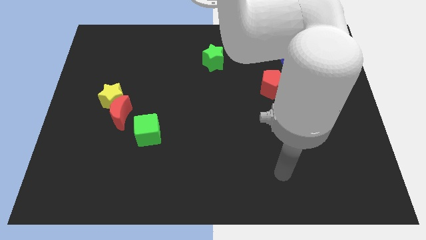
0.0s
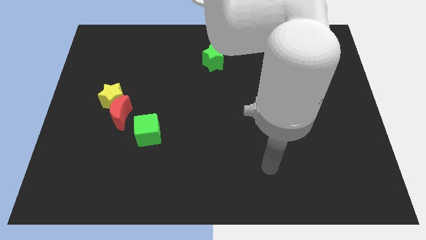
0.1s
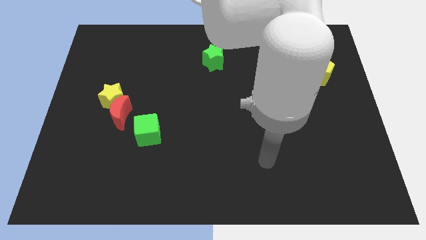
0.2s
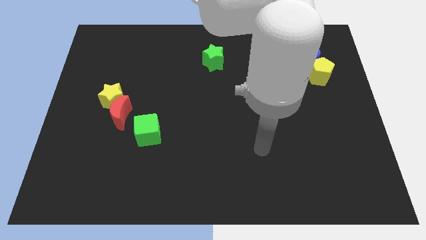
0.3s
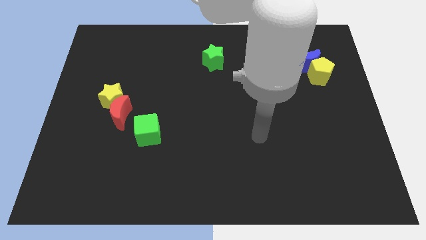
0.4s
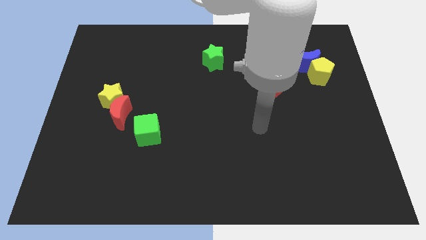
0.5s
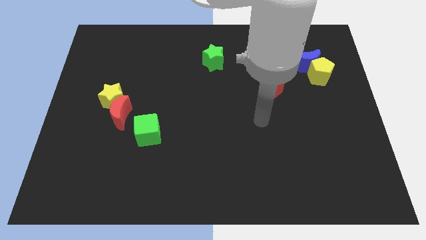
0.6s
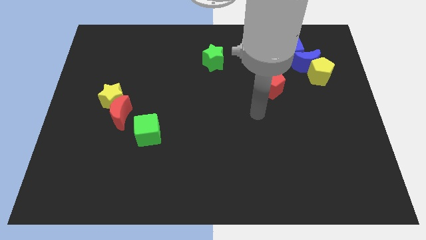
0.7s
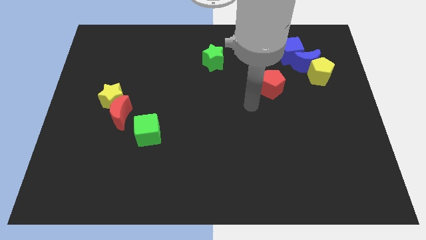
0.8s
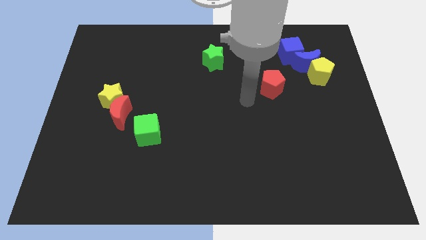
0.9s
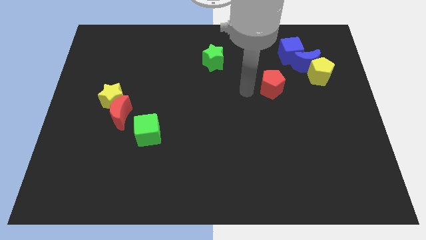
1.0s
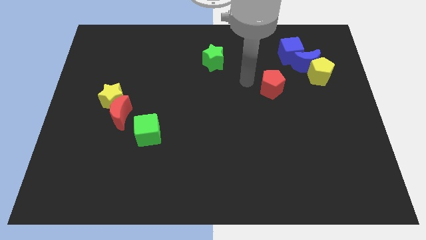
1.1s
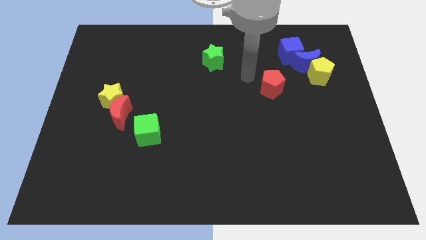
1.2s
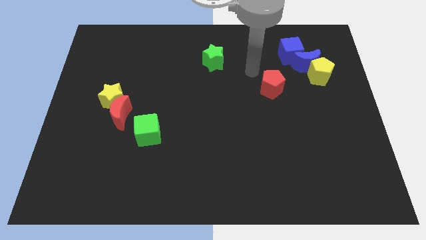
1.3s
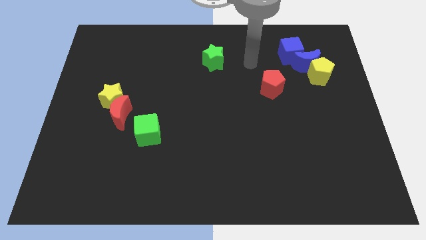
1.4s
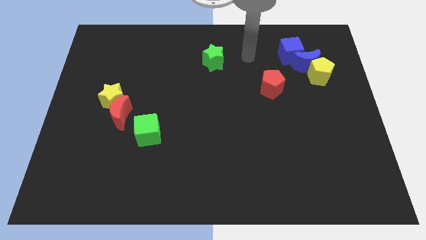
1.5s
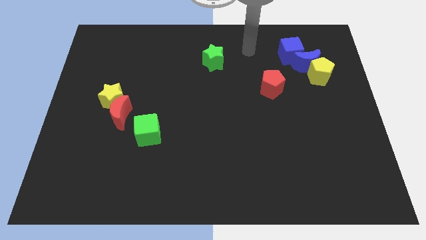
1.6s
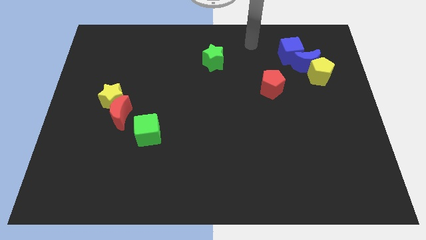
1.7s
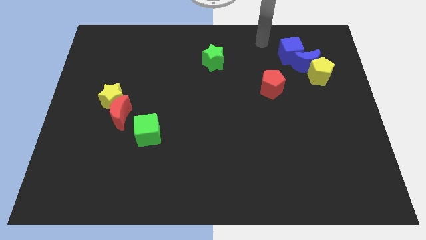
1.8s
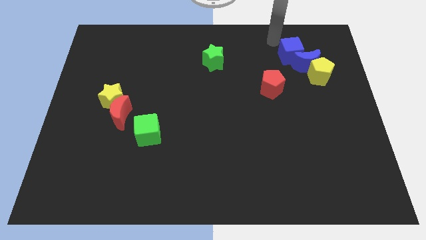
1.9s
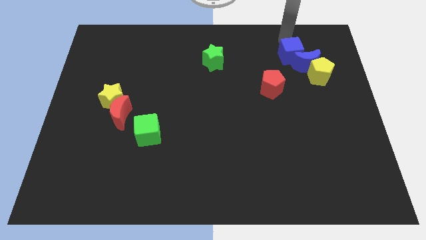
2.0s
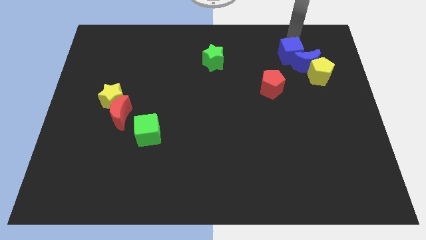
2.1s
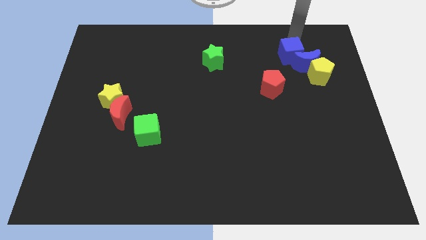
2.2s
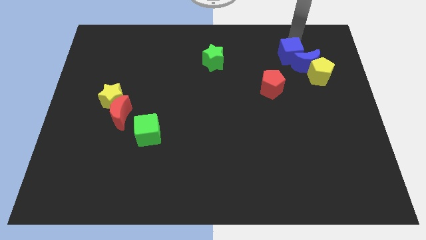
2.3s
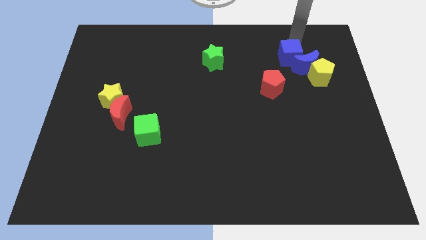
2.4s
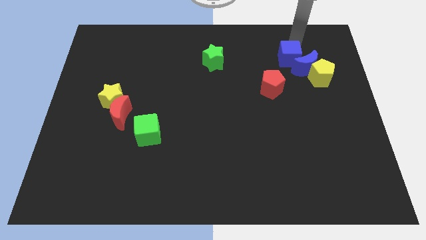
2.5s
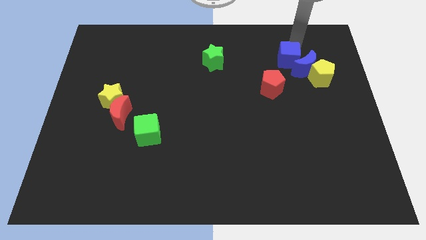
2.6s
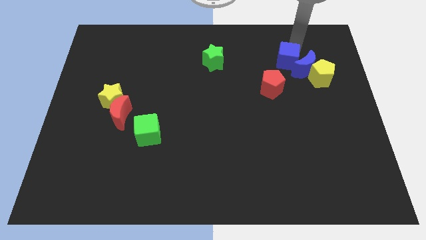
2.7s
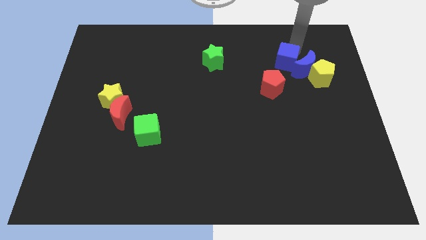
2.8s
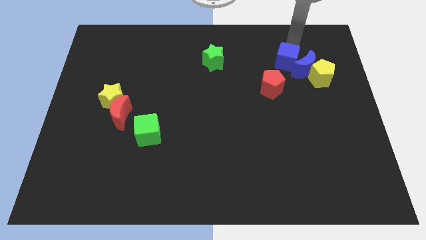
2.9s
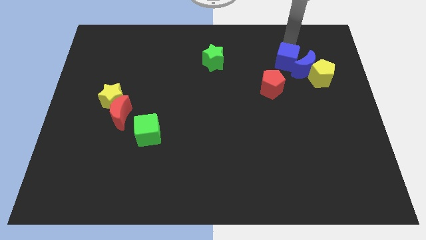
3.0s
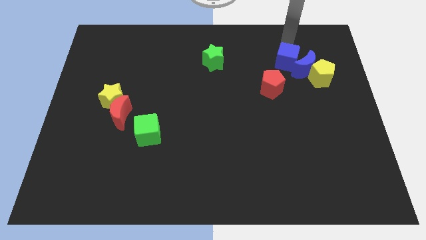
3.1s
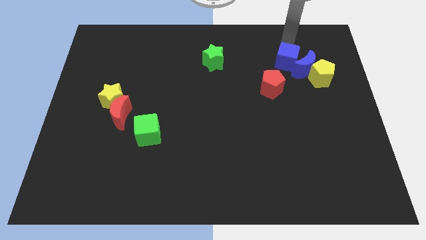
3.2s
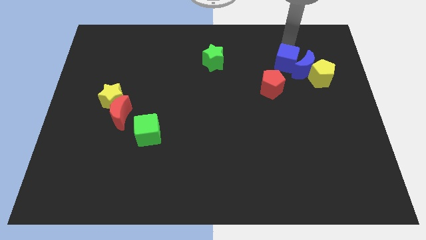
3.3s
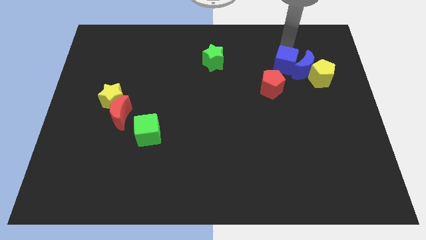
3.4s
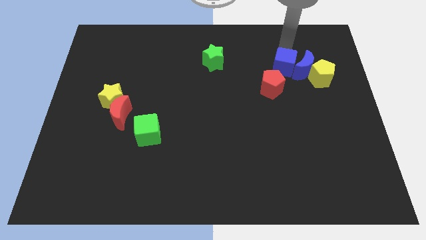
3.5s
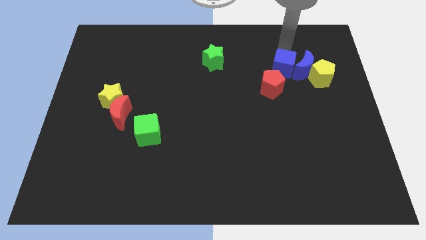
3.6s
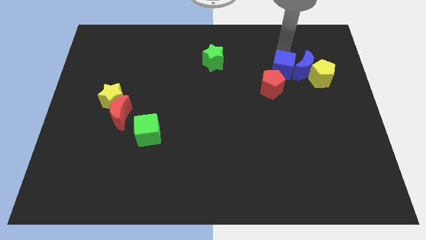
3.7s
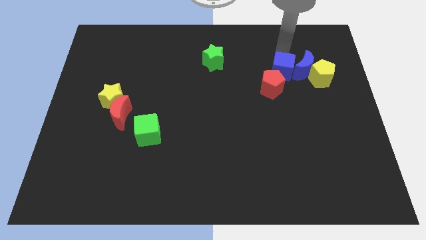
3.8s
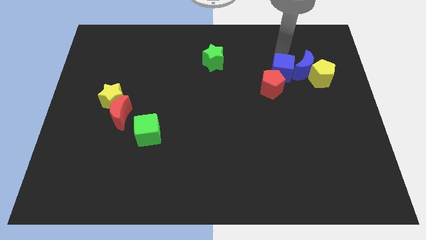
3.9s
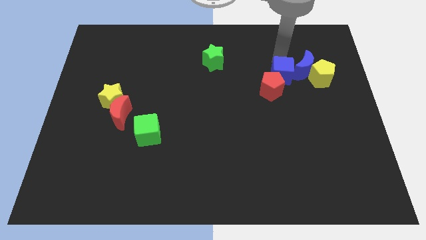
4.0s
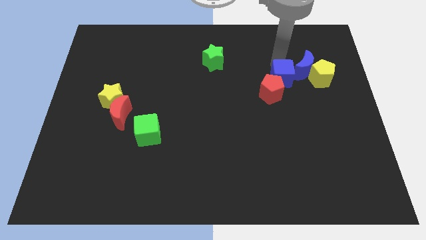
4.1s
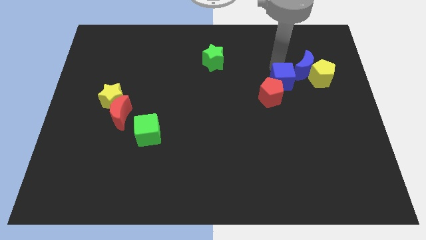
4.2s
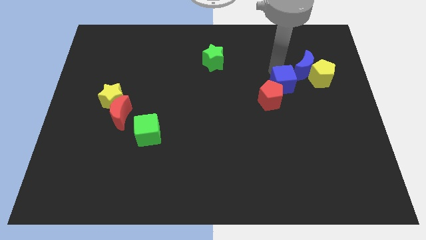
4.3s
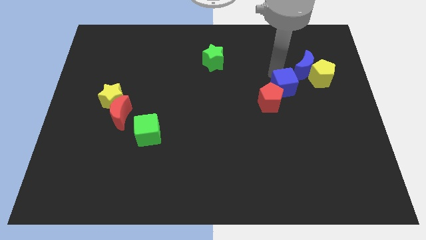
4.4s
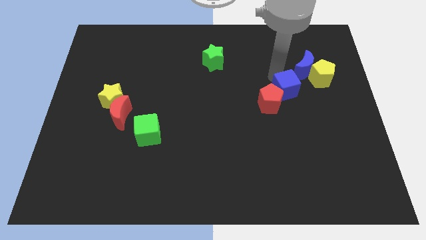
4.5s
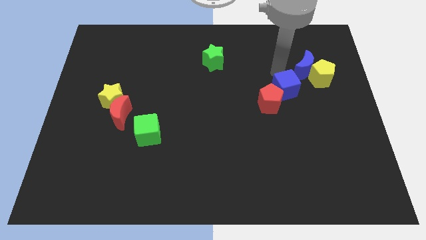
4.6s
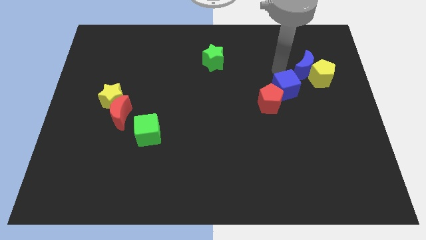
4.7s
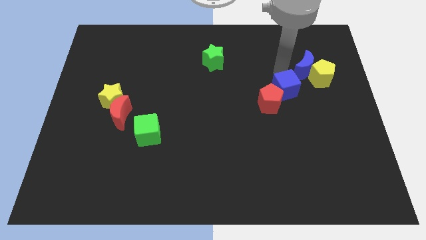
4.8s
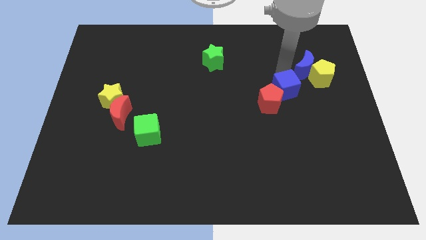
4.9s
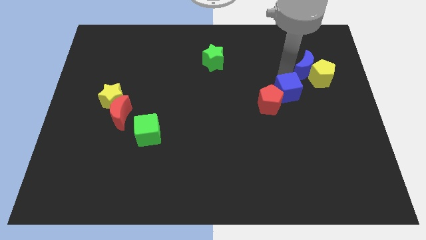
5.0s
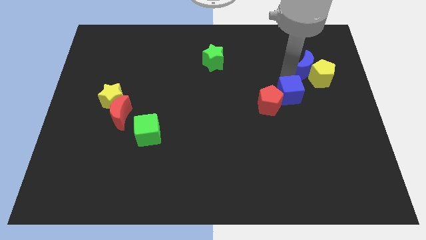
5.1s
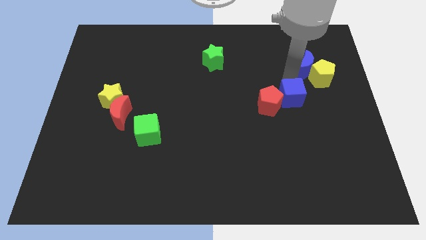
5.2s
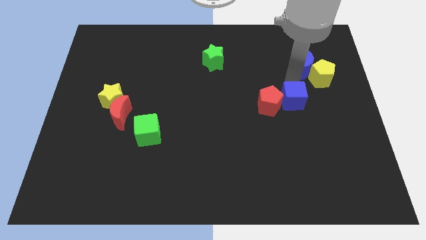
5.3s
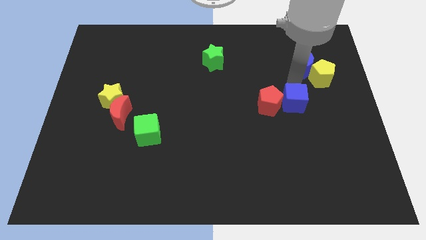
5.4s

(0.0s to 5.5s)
slide the blue cube to the bottom right of the red pentagon

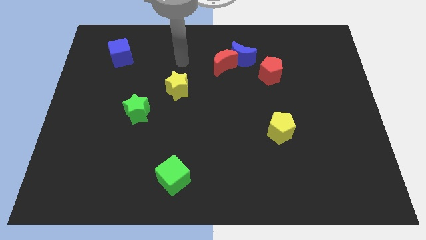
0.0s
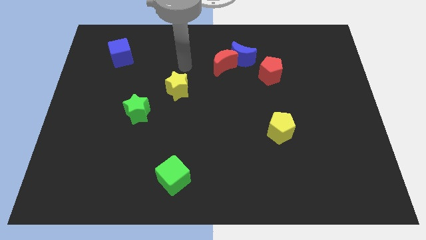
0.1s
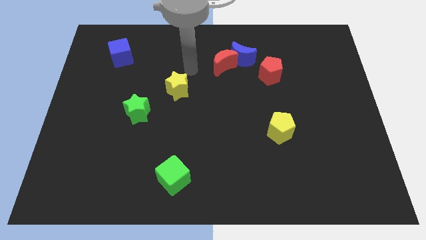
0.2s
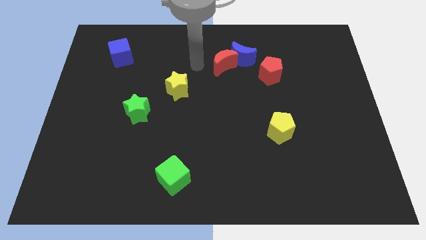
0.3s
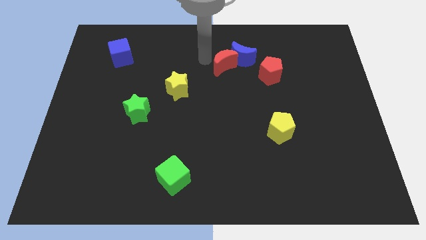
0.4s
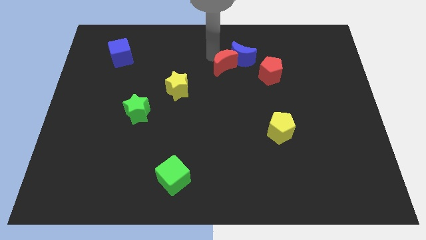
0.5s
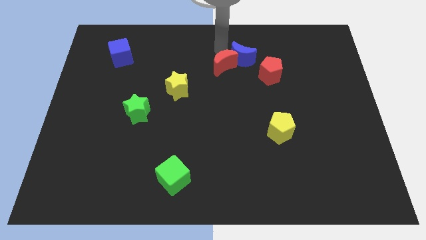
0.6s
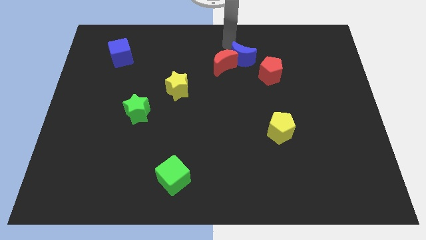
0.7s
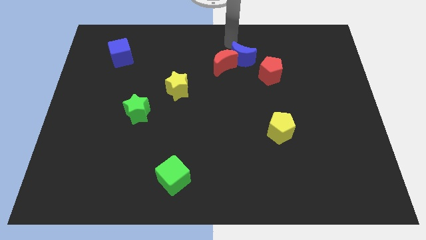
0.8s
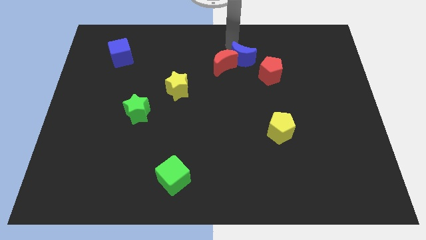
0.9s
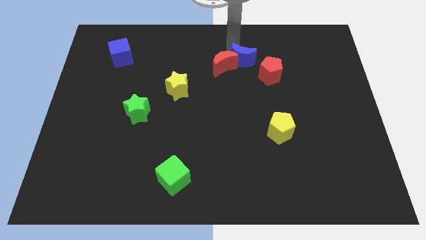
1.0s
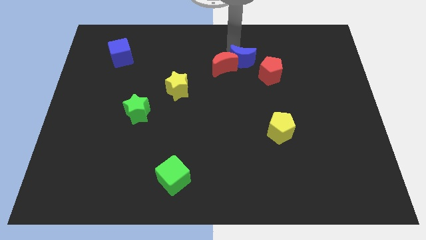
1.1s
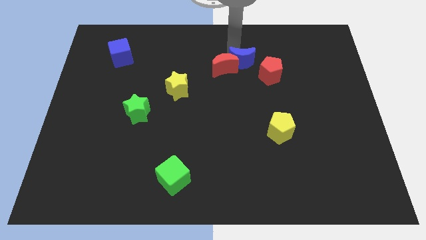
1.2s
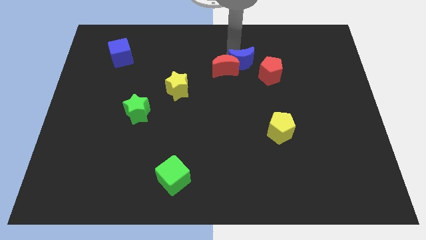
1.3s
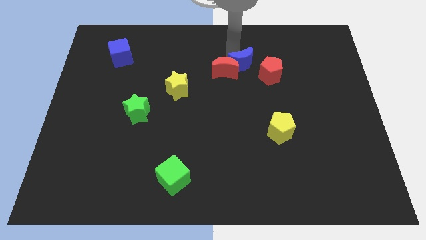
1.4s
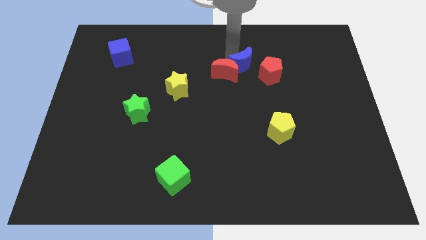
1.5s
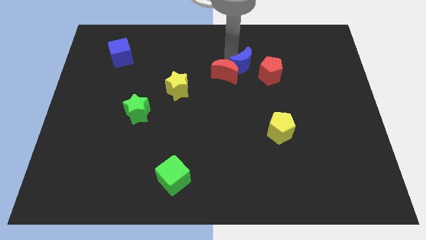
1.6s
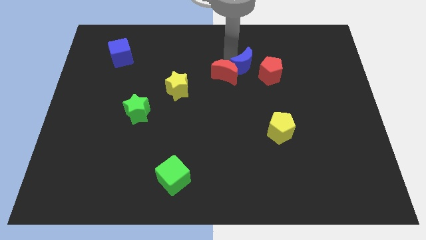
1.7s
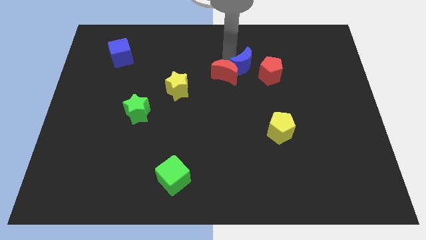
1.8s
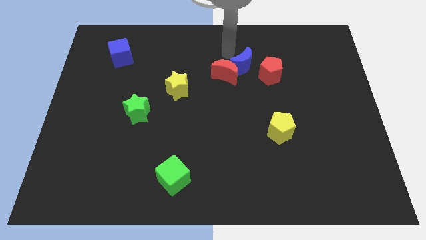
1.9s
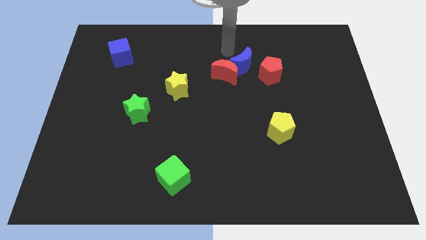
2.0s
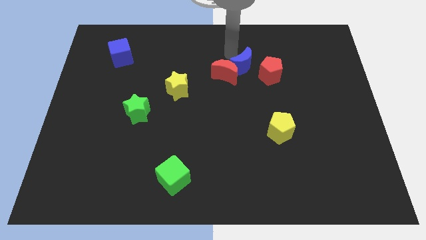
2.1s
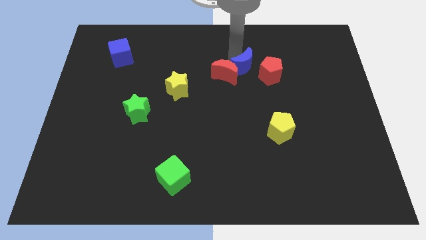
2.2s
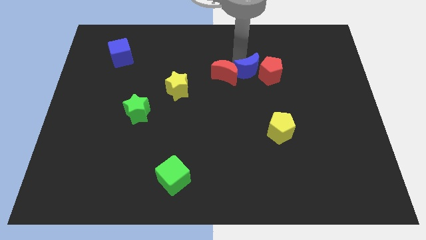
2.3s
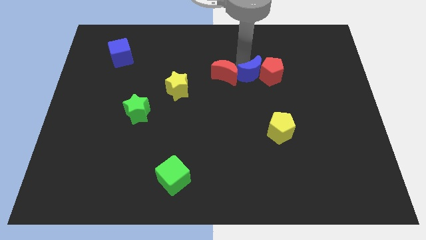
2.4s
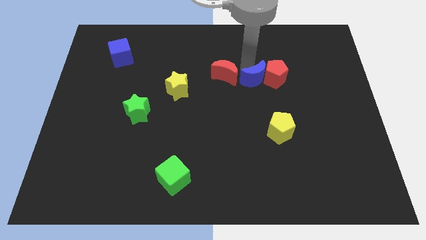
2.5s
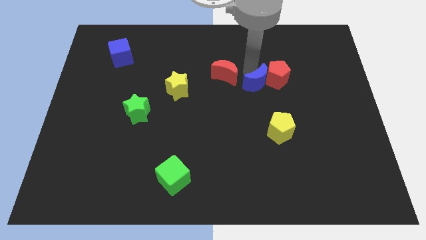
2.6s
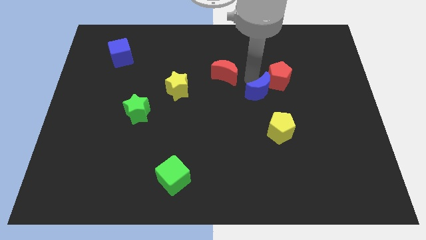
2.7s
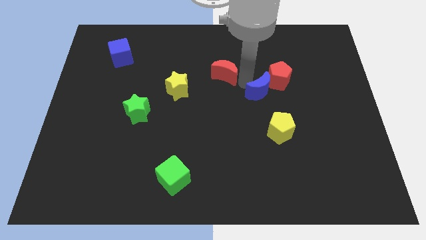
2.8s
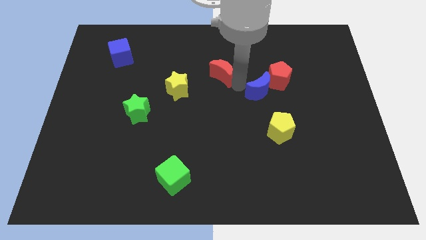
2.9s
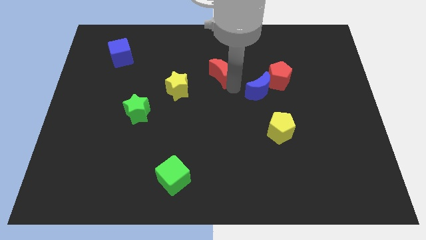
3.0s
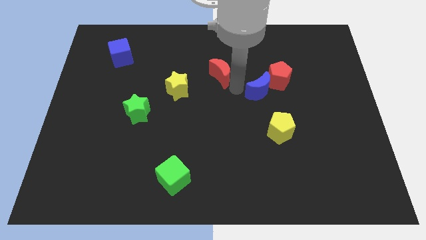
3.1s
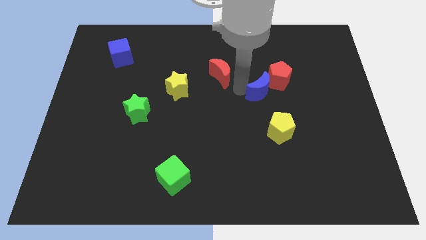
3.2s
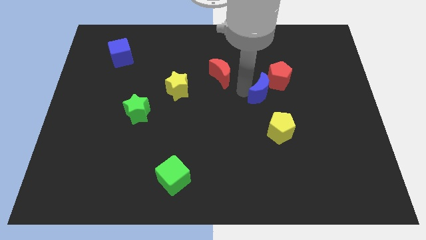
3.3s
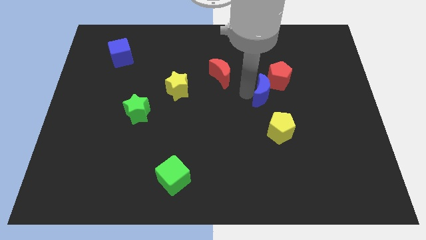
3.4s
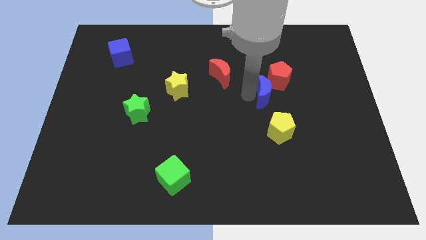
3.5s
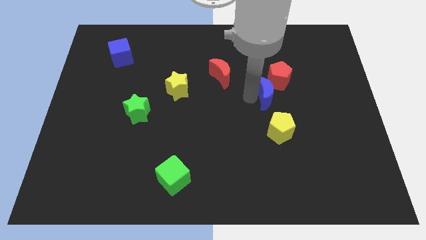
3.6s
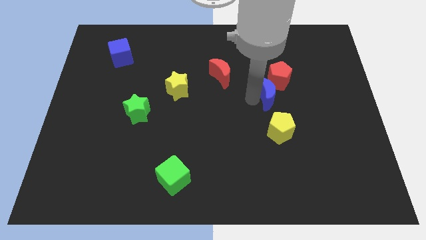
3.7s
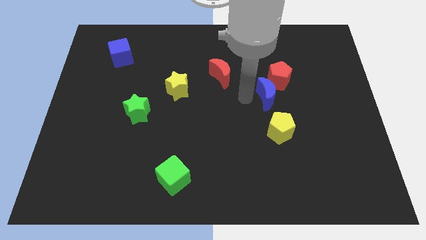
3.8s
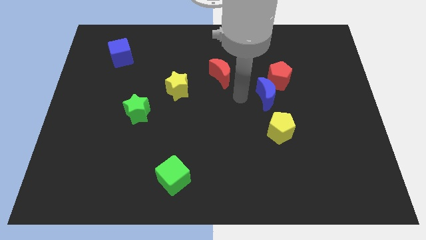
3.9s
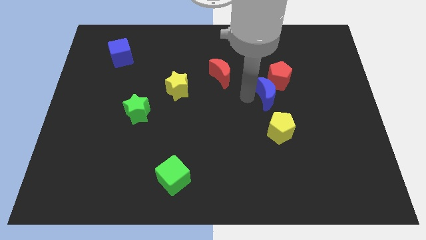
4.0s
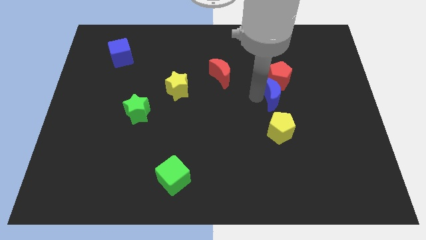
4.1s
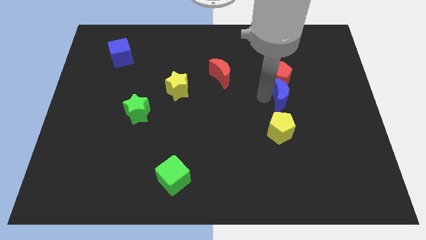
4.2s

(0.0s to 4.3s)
move the blue moon to the bottom right side of the red pentagon
